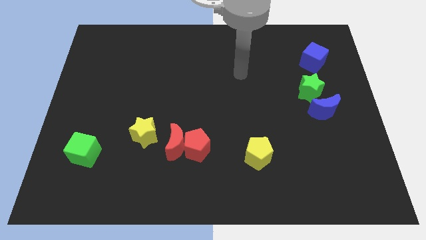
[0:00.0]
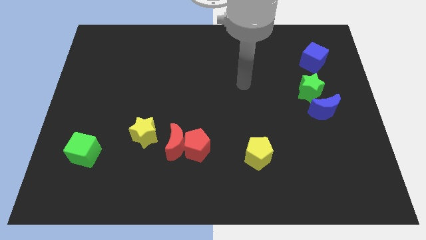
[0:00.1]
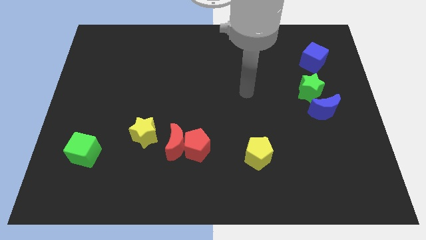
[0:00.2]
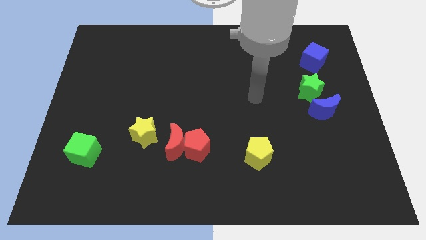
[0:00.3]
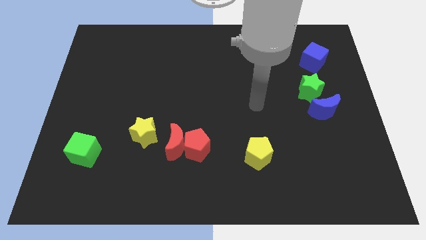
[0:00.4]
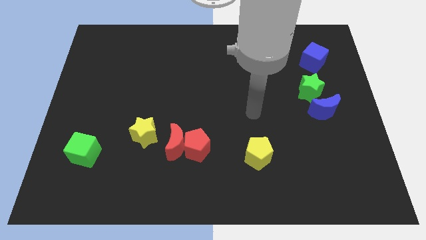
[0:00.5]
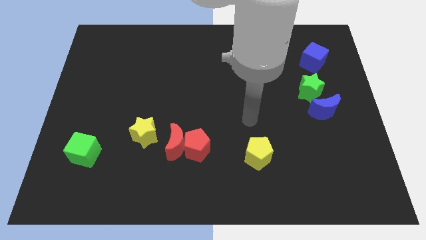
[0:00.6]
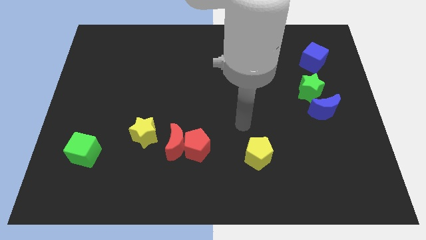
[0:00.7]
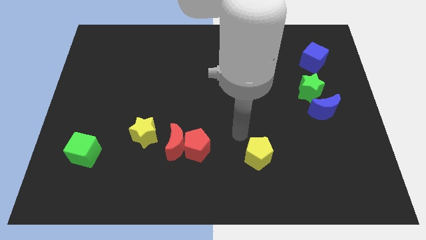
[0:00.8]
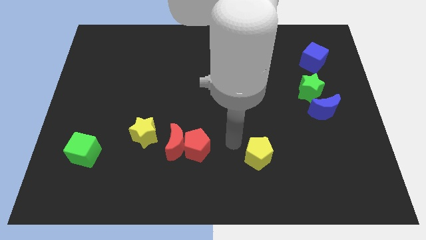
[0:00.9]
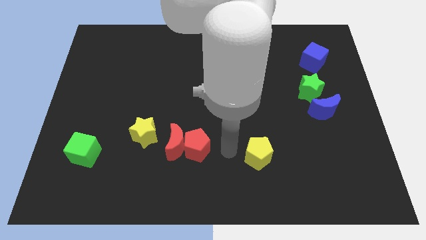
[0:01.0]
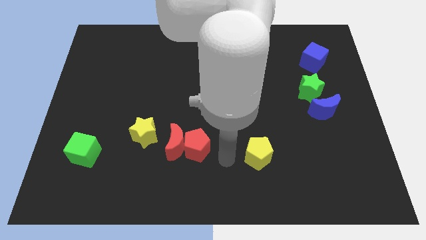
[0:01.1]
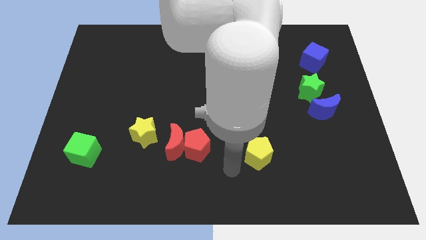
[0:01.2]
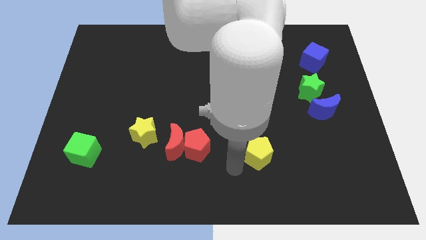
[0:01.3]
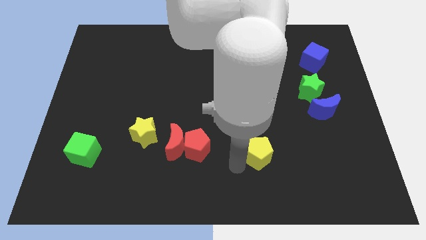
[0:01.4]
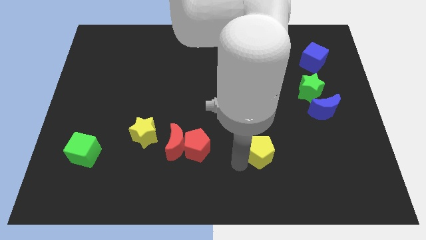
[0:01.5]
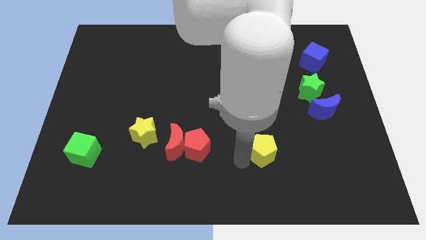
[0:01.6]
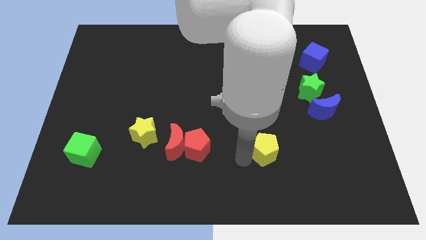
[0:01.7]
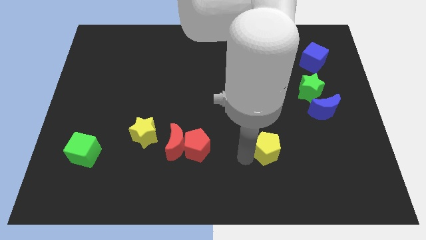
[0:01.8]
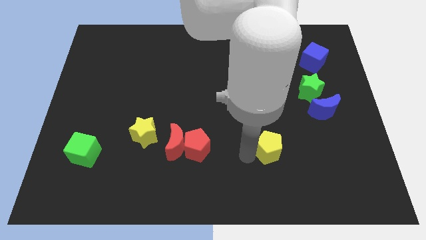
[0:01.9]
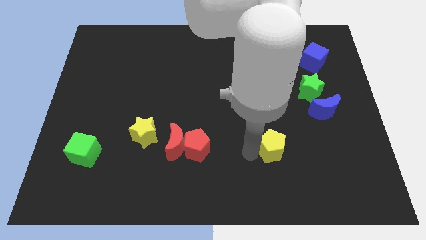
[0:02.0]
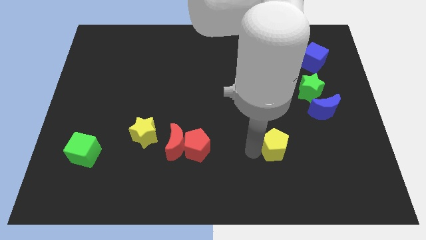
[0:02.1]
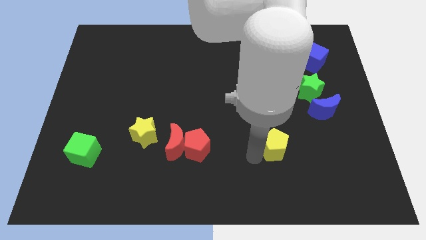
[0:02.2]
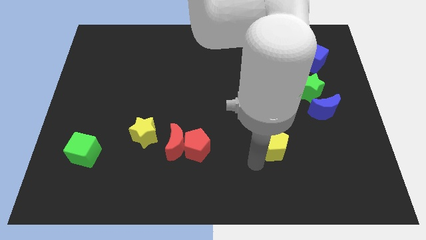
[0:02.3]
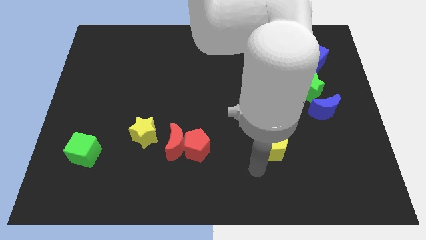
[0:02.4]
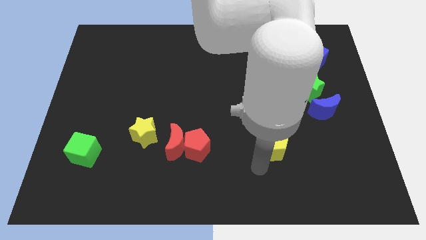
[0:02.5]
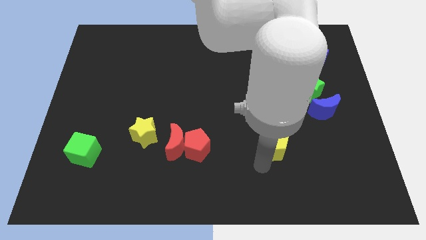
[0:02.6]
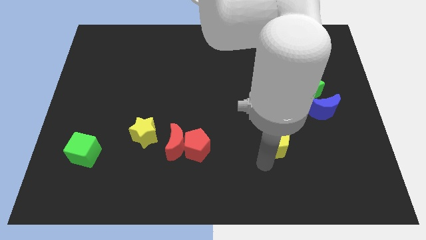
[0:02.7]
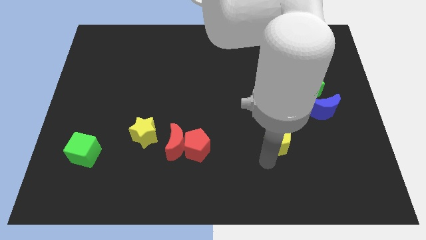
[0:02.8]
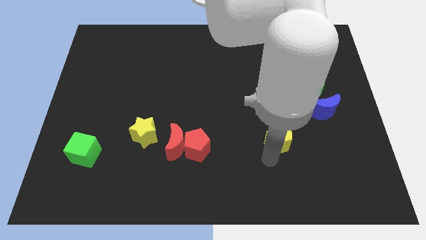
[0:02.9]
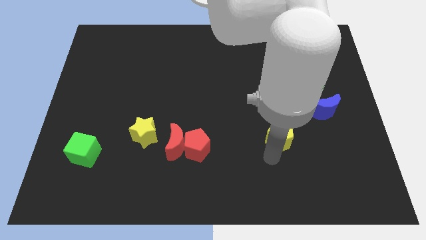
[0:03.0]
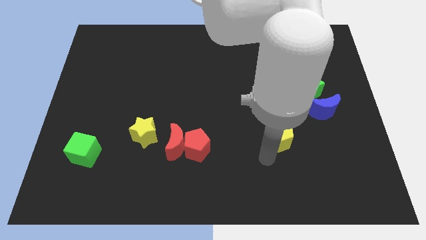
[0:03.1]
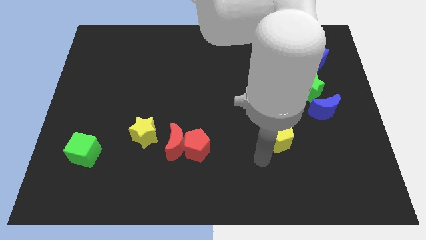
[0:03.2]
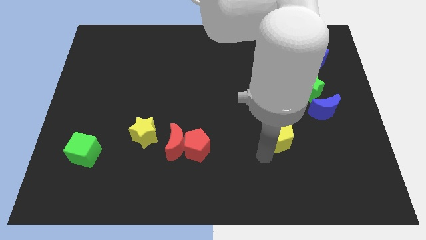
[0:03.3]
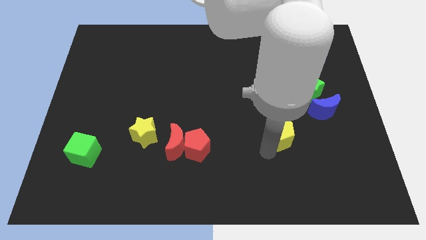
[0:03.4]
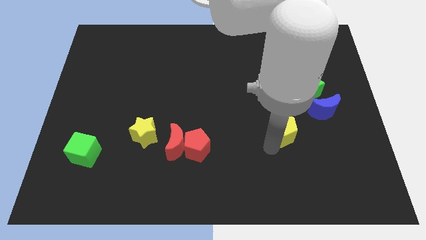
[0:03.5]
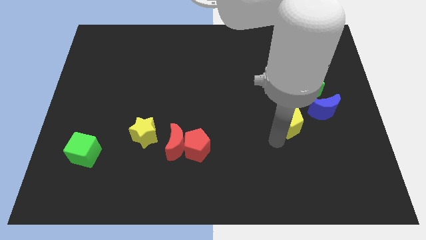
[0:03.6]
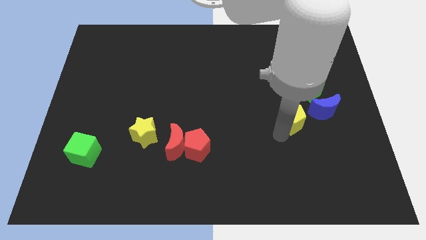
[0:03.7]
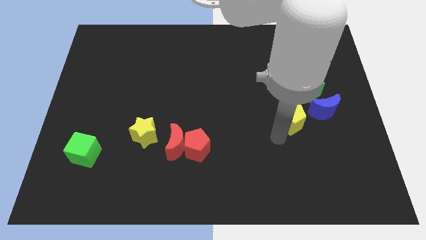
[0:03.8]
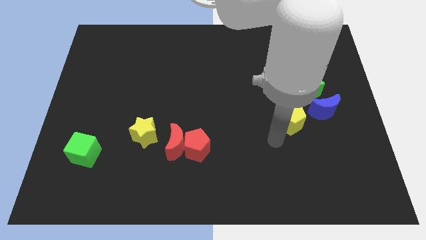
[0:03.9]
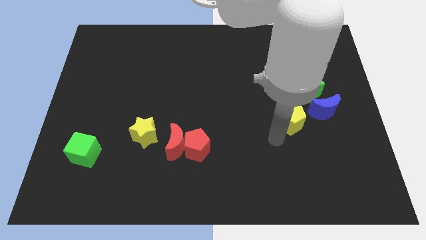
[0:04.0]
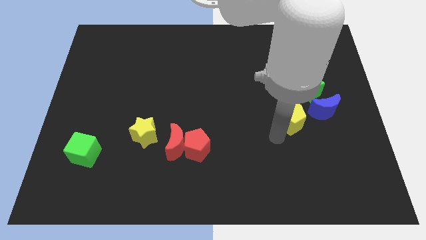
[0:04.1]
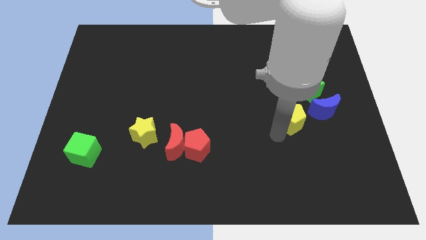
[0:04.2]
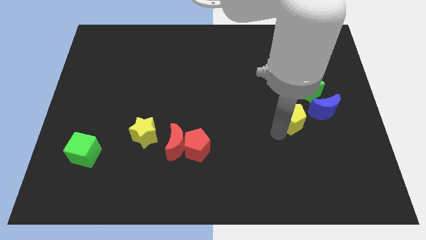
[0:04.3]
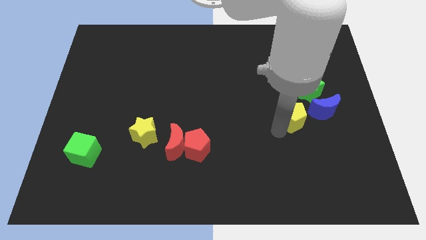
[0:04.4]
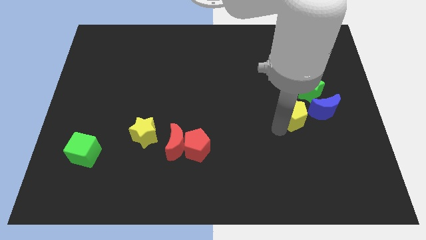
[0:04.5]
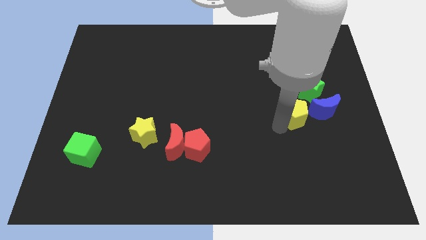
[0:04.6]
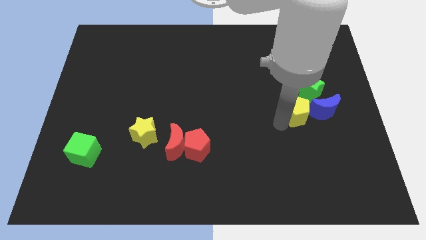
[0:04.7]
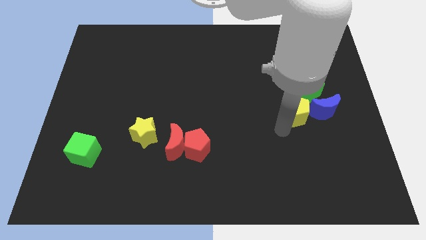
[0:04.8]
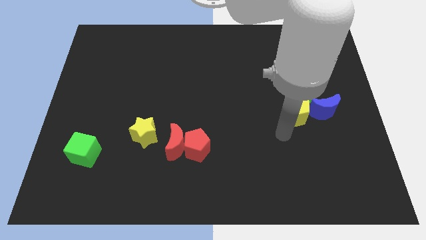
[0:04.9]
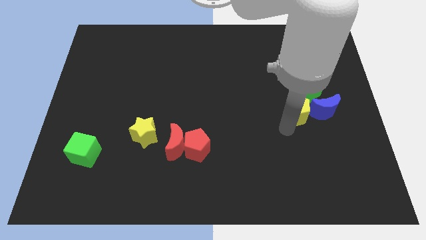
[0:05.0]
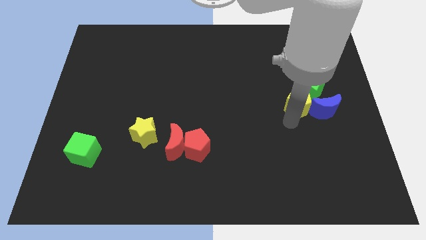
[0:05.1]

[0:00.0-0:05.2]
move the yellow pentagon close to the green star

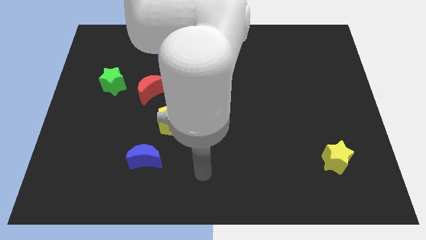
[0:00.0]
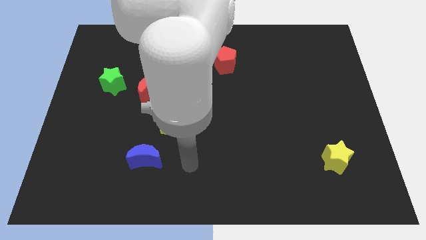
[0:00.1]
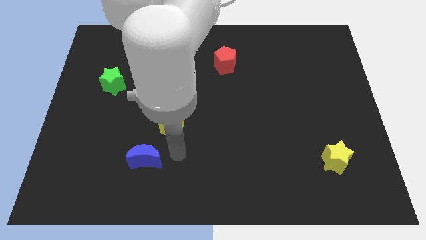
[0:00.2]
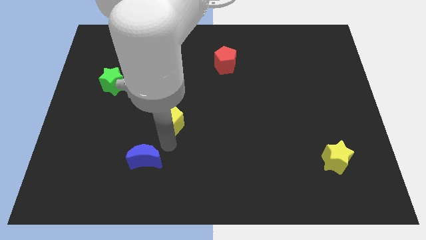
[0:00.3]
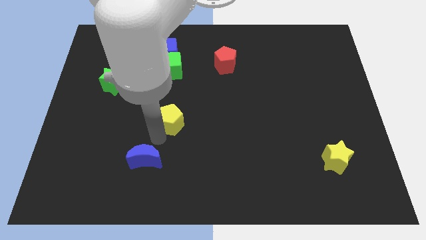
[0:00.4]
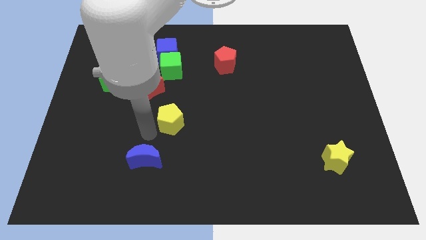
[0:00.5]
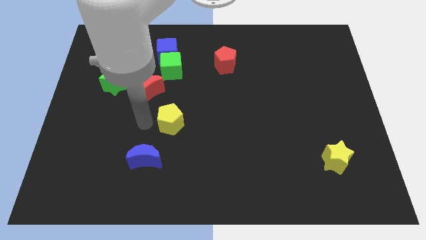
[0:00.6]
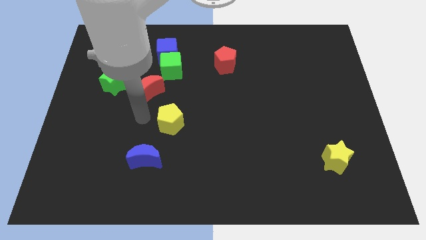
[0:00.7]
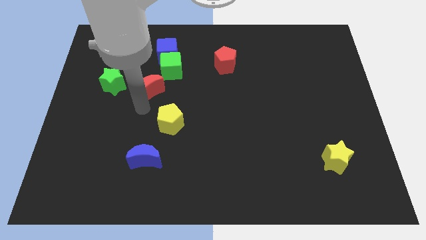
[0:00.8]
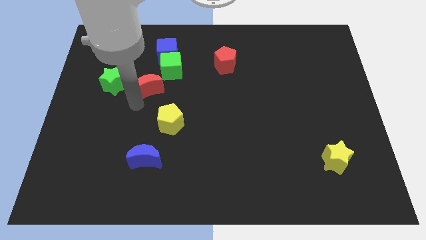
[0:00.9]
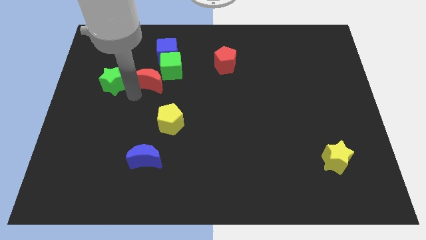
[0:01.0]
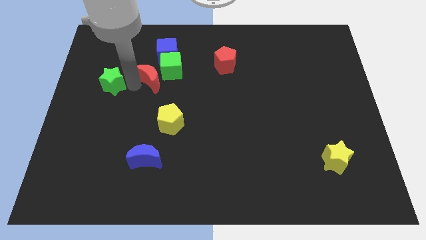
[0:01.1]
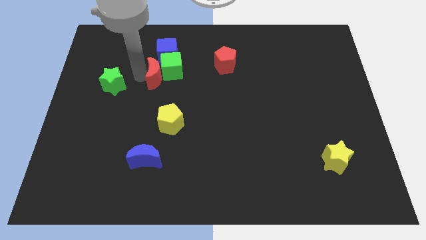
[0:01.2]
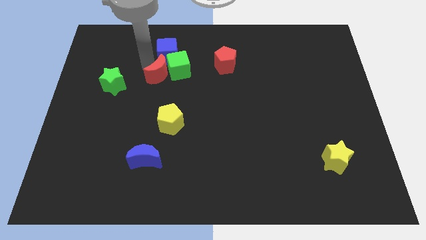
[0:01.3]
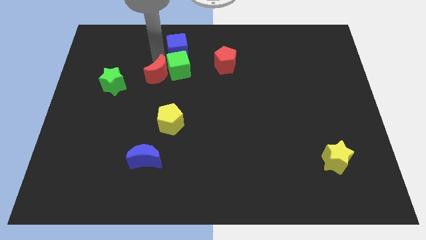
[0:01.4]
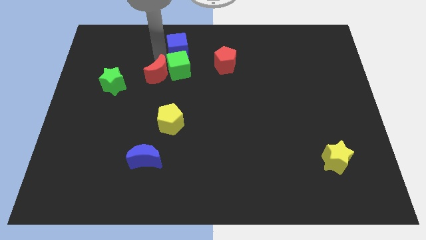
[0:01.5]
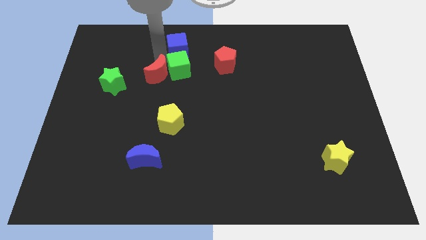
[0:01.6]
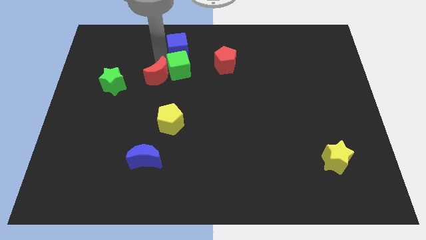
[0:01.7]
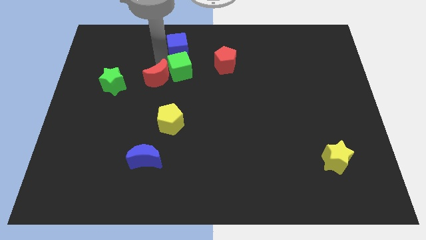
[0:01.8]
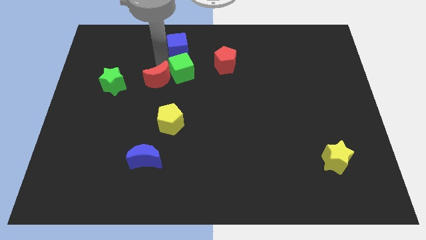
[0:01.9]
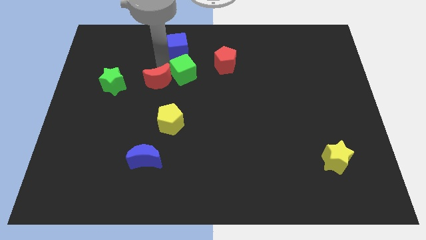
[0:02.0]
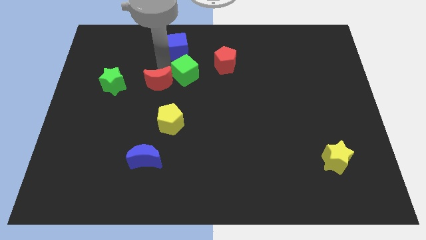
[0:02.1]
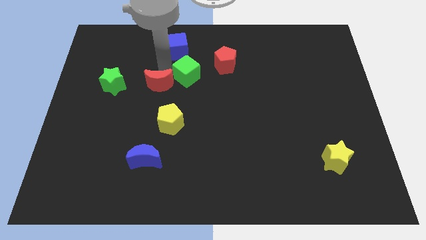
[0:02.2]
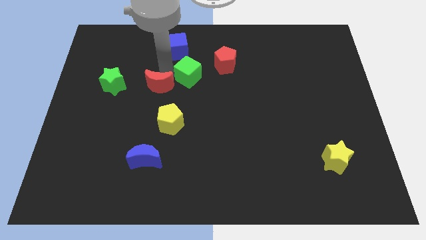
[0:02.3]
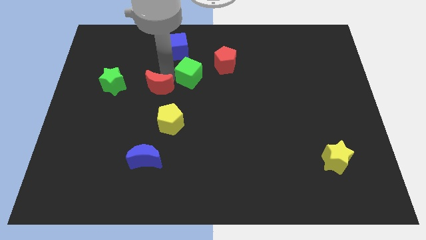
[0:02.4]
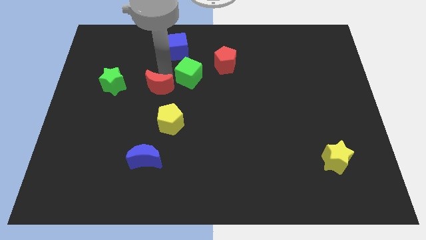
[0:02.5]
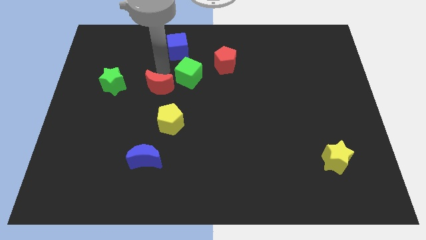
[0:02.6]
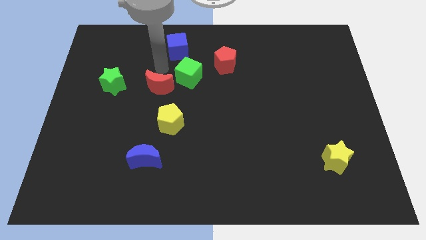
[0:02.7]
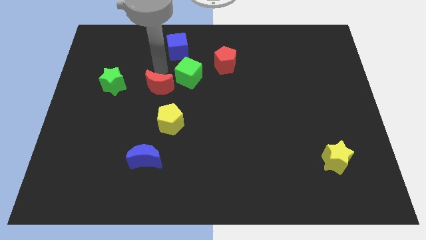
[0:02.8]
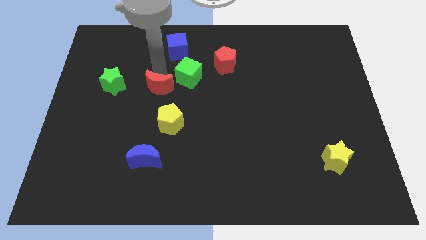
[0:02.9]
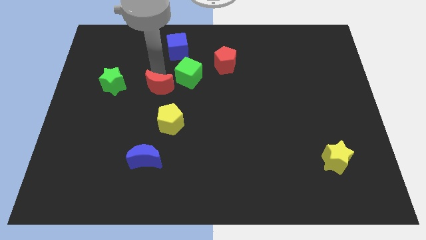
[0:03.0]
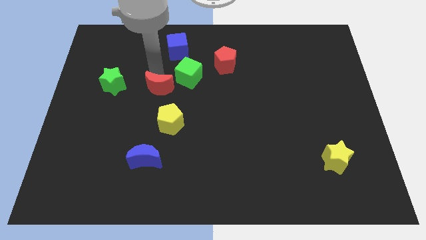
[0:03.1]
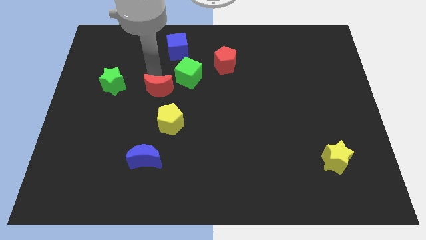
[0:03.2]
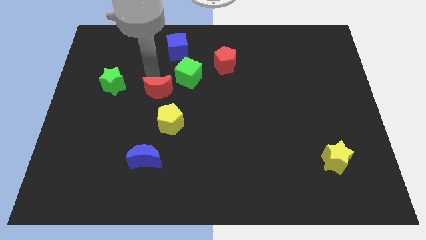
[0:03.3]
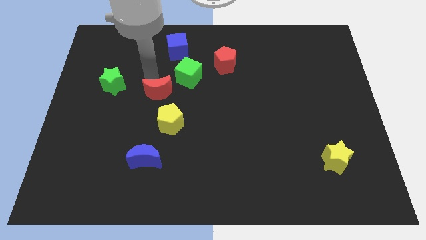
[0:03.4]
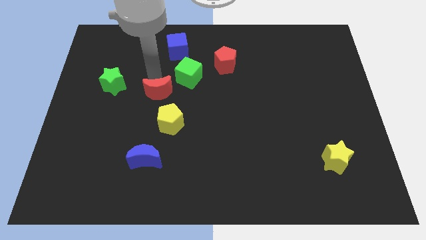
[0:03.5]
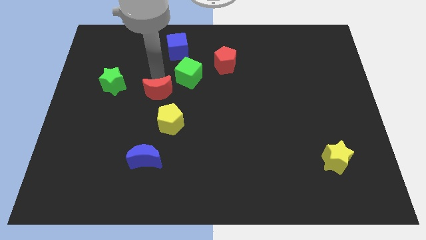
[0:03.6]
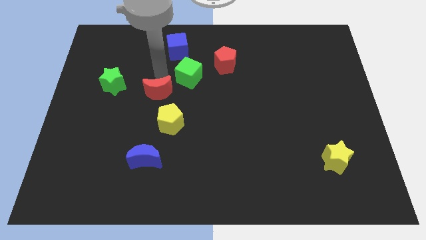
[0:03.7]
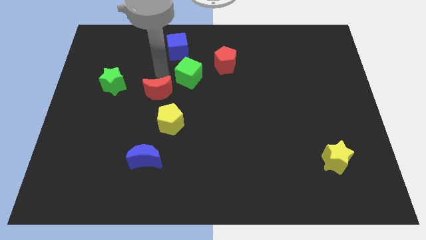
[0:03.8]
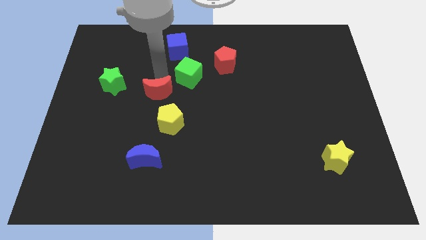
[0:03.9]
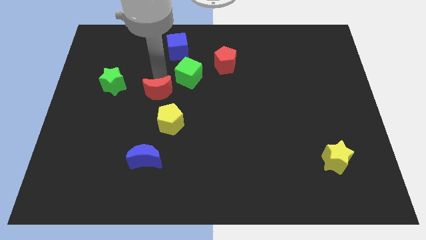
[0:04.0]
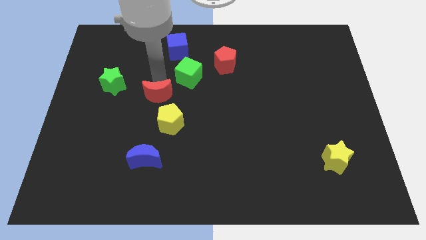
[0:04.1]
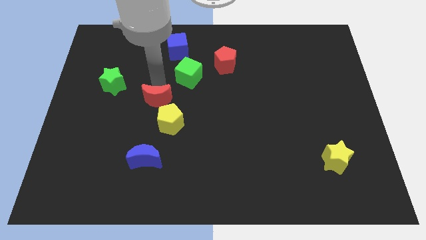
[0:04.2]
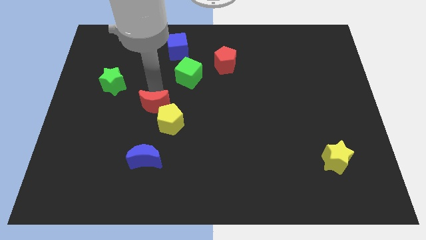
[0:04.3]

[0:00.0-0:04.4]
push the red moon close to the yellow pentagon
